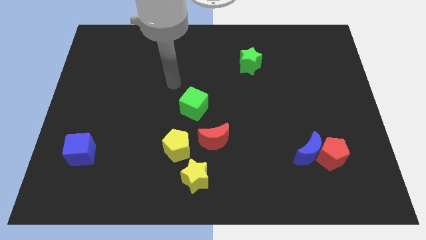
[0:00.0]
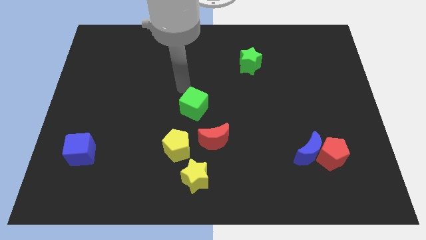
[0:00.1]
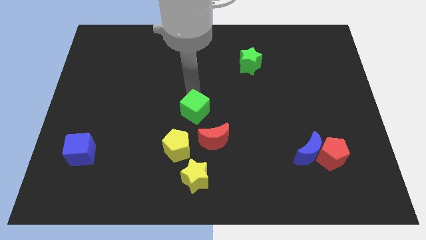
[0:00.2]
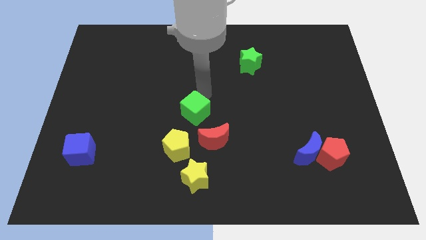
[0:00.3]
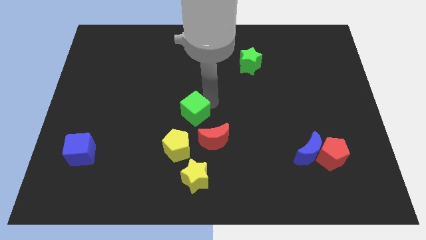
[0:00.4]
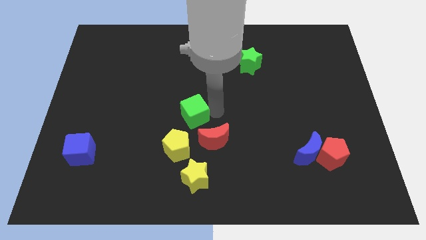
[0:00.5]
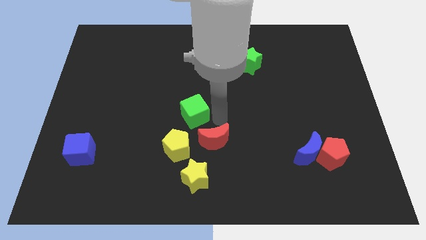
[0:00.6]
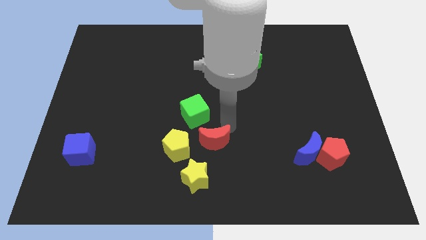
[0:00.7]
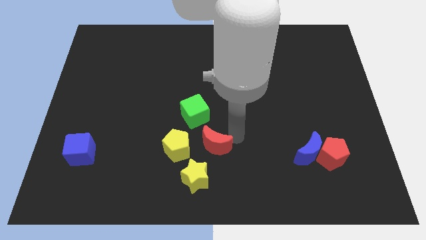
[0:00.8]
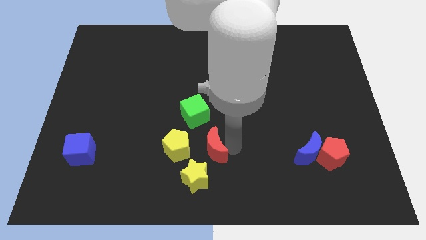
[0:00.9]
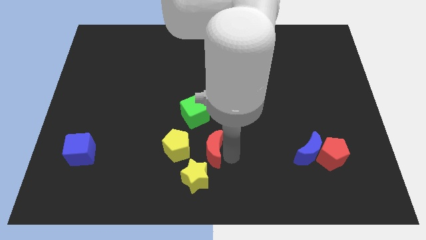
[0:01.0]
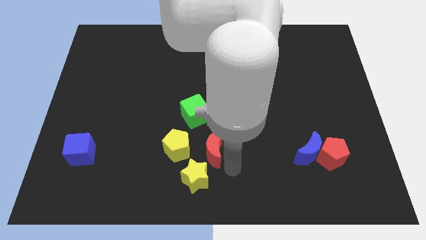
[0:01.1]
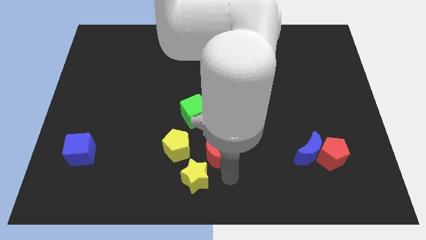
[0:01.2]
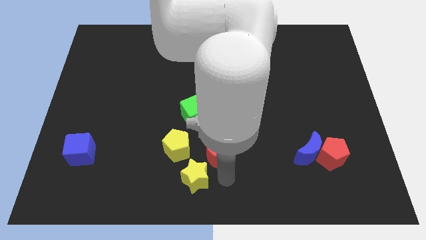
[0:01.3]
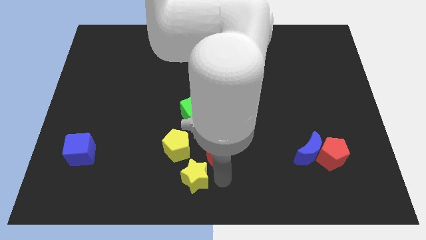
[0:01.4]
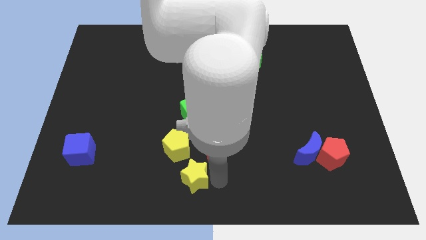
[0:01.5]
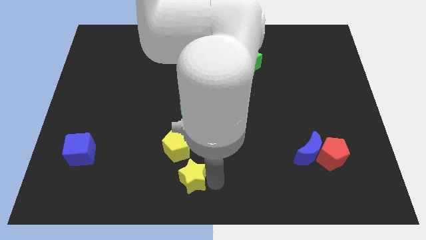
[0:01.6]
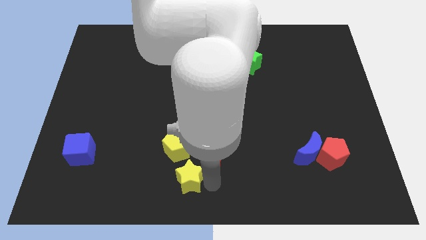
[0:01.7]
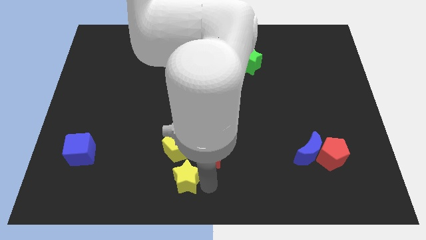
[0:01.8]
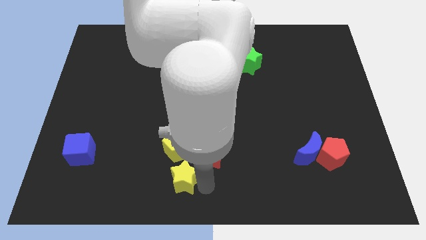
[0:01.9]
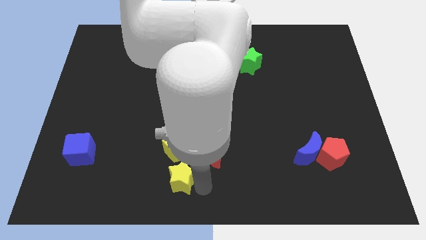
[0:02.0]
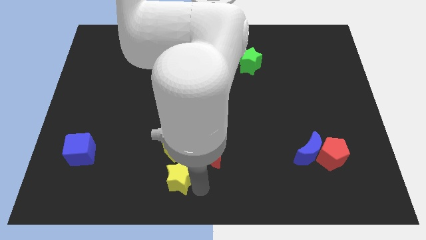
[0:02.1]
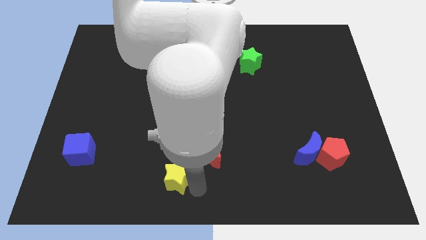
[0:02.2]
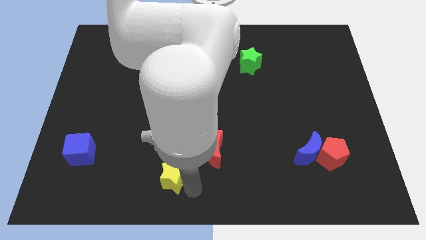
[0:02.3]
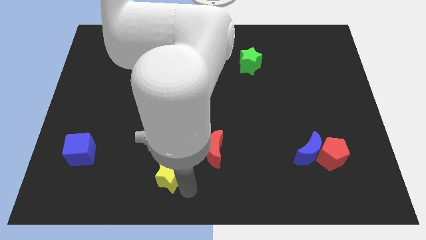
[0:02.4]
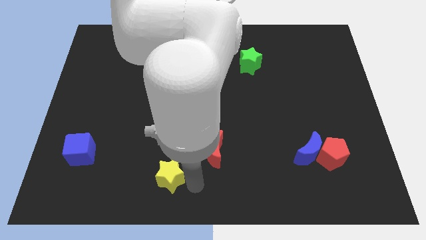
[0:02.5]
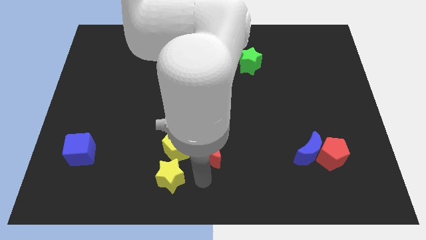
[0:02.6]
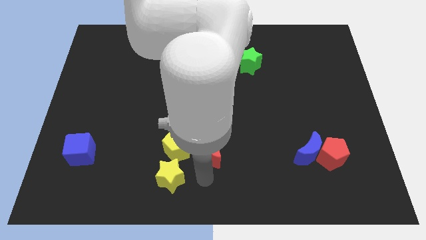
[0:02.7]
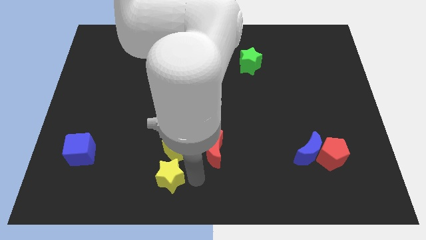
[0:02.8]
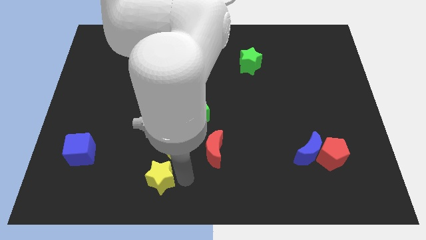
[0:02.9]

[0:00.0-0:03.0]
slide the yellow star slightly to the left

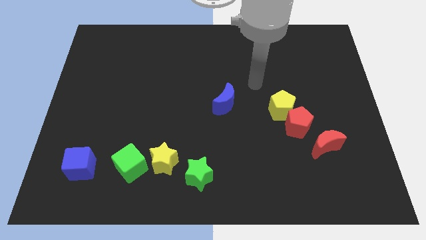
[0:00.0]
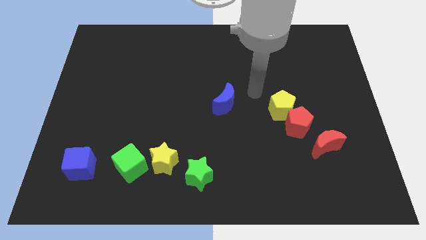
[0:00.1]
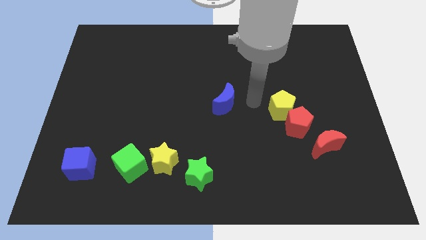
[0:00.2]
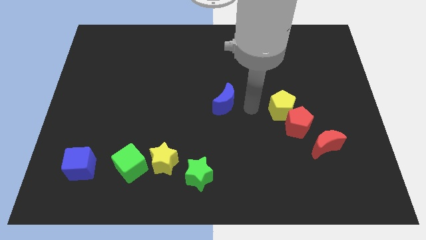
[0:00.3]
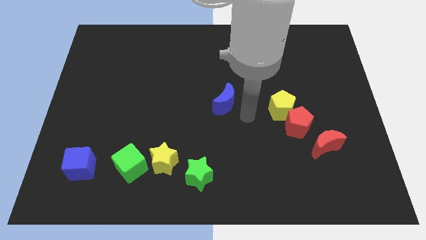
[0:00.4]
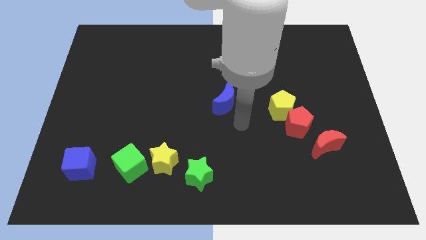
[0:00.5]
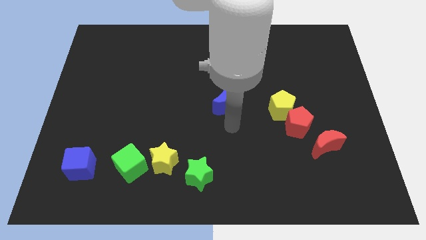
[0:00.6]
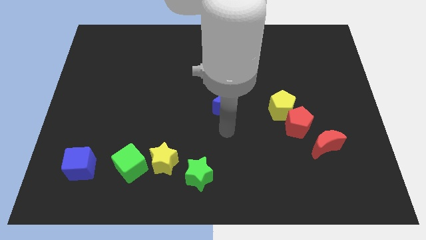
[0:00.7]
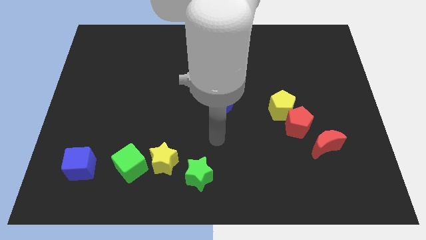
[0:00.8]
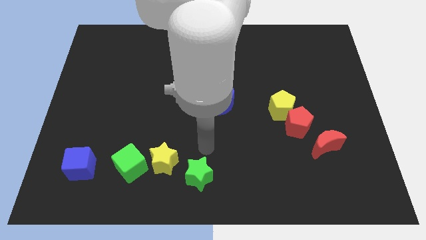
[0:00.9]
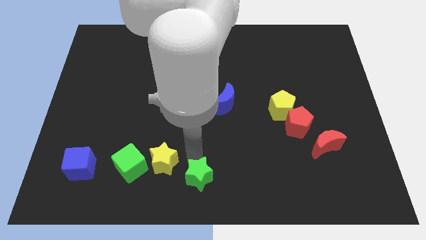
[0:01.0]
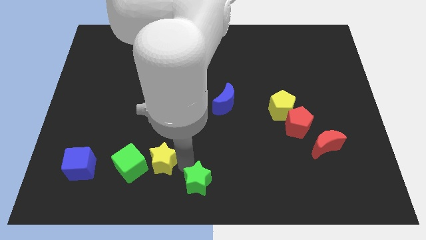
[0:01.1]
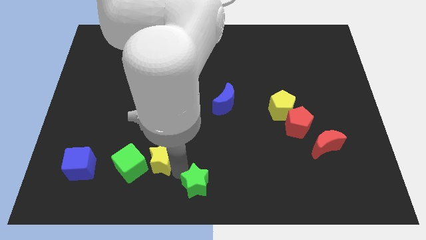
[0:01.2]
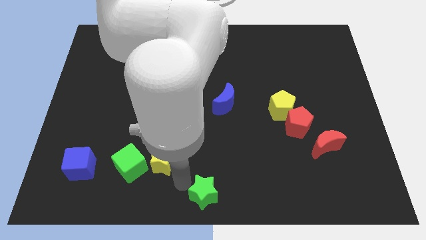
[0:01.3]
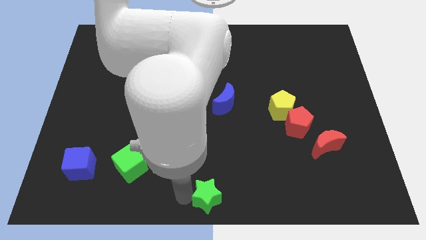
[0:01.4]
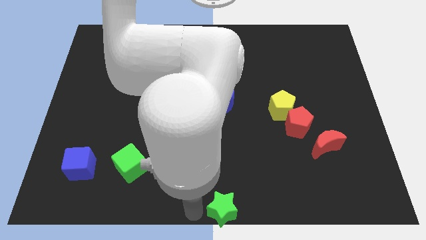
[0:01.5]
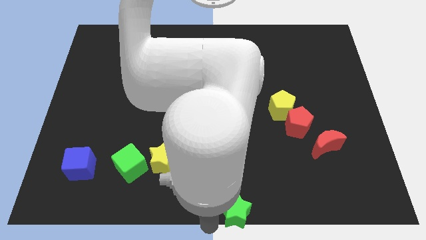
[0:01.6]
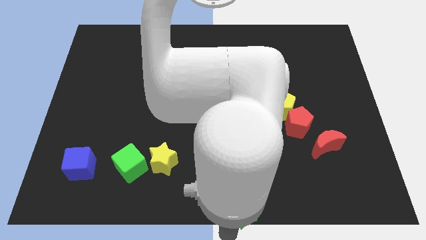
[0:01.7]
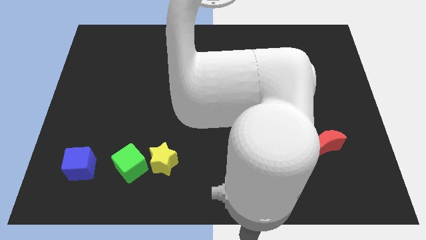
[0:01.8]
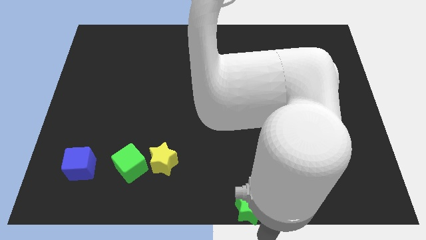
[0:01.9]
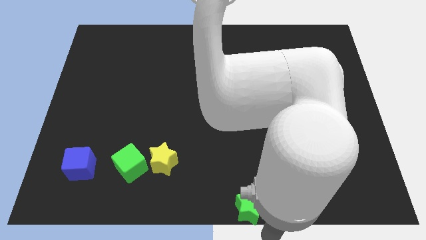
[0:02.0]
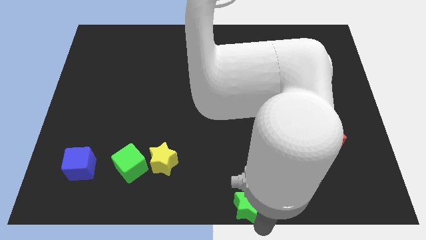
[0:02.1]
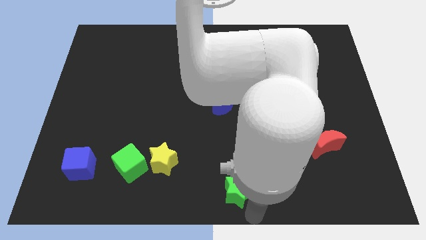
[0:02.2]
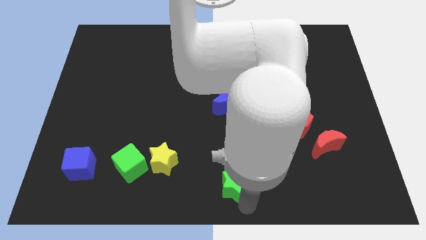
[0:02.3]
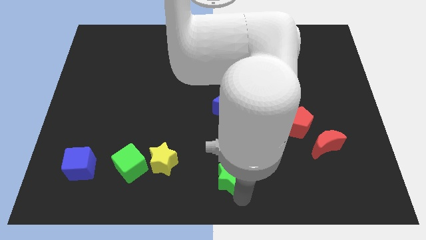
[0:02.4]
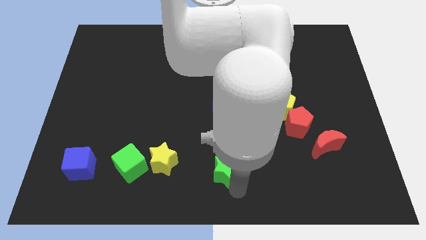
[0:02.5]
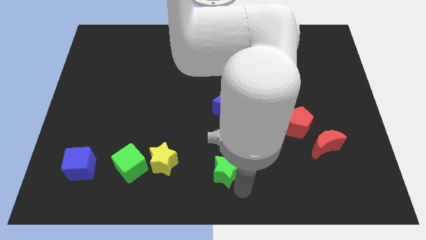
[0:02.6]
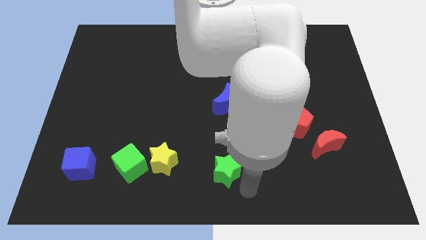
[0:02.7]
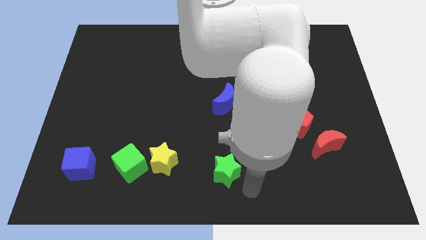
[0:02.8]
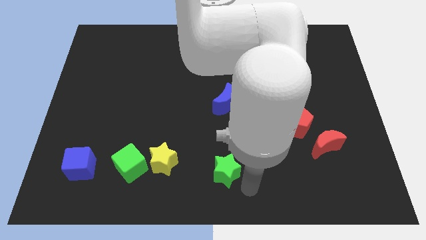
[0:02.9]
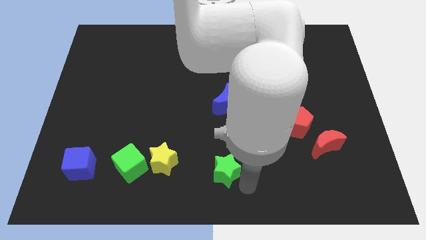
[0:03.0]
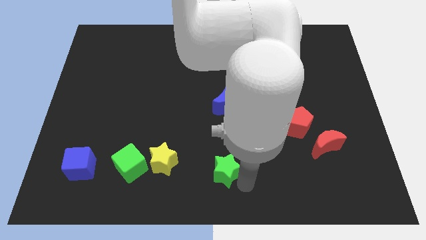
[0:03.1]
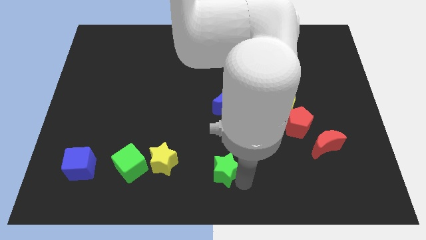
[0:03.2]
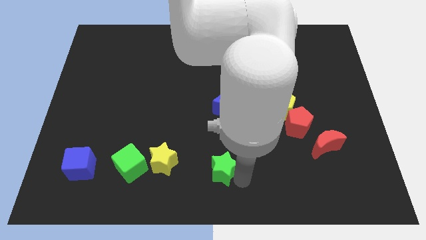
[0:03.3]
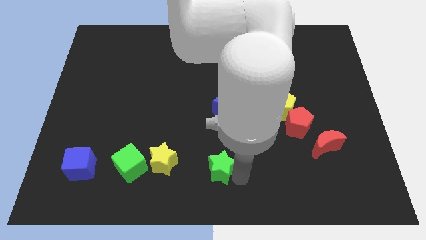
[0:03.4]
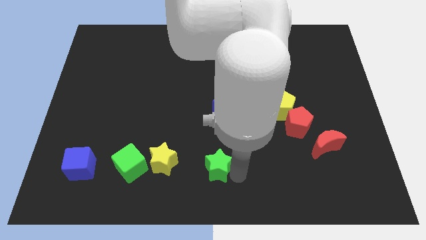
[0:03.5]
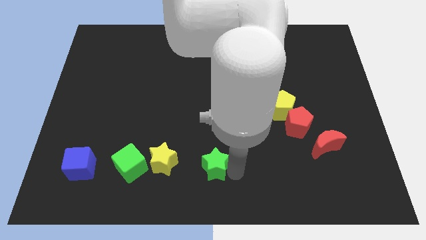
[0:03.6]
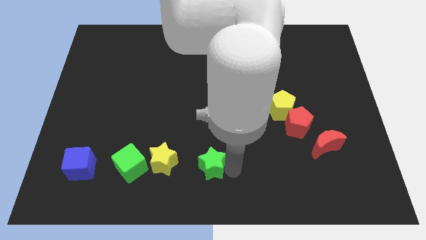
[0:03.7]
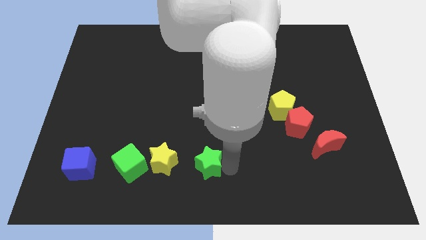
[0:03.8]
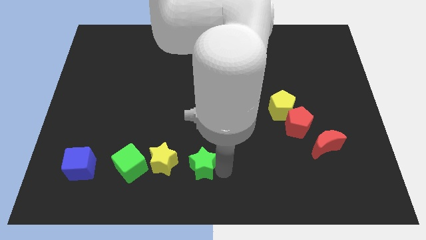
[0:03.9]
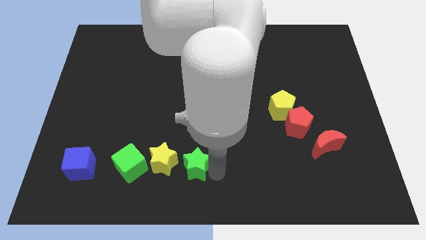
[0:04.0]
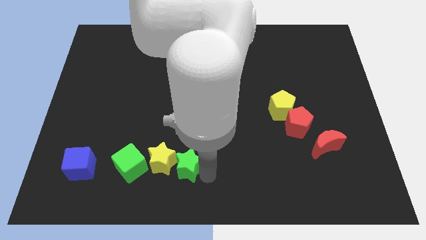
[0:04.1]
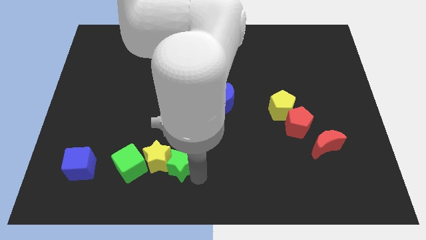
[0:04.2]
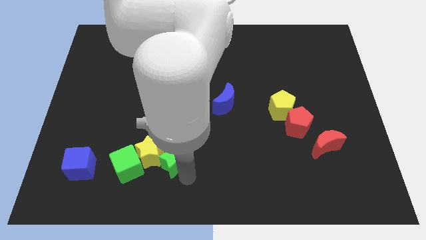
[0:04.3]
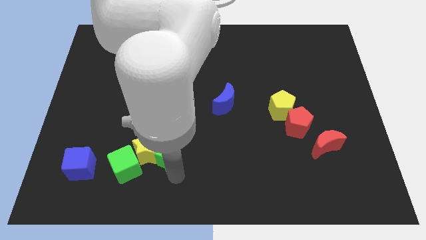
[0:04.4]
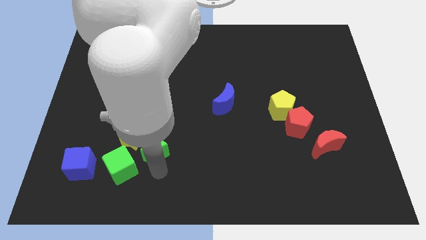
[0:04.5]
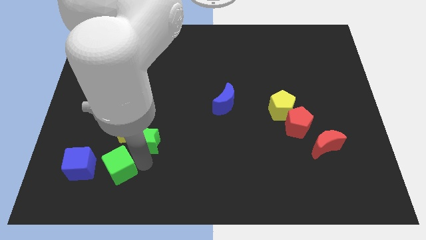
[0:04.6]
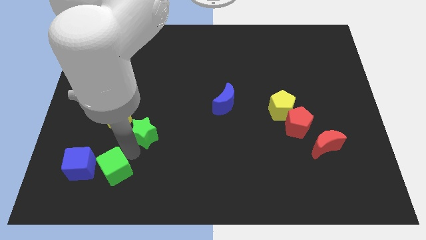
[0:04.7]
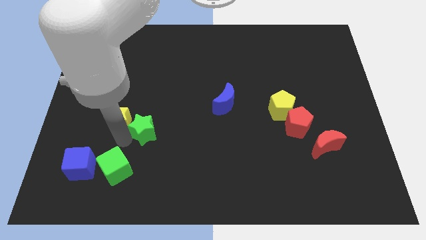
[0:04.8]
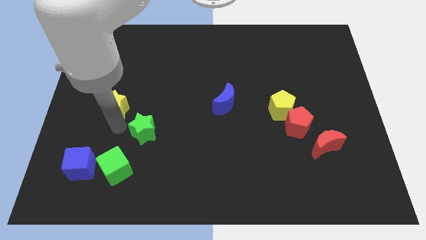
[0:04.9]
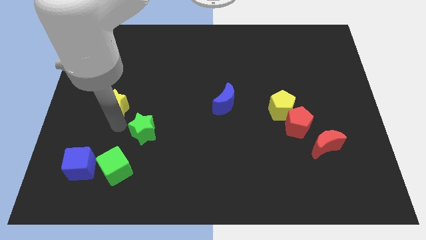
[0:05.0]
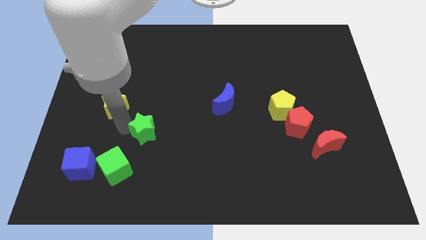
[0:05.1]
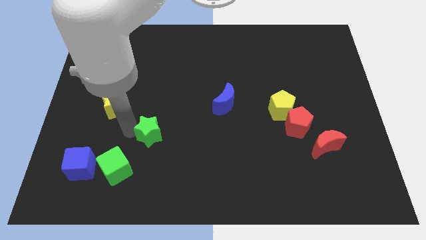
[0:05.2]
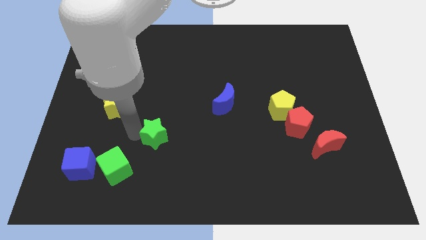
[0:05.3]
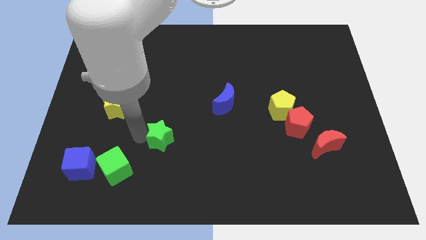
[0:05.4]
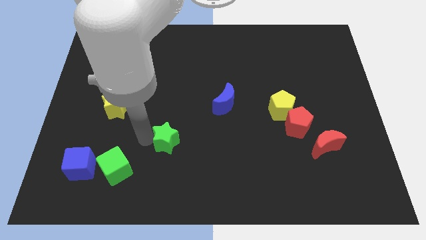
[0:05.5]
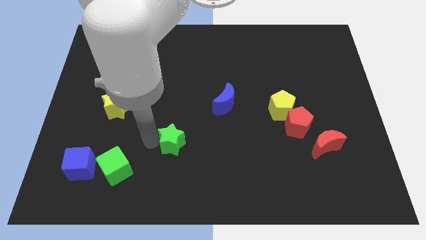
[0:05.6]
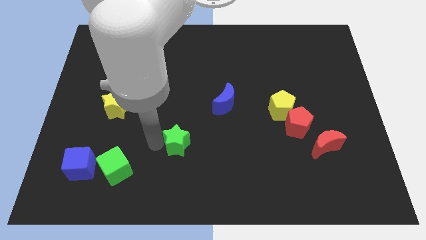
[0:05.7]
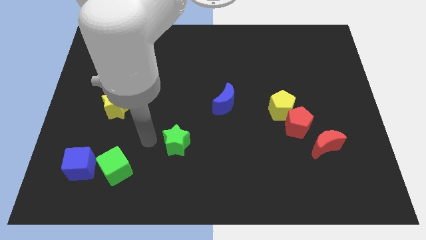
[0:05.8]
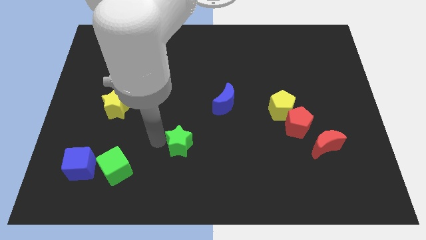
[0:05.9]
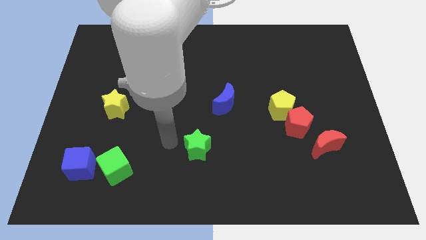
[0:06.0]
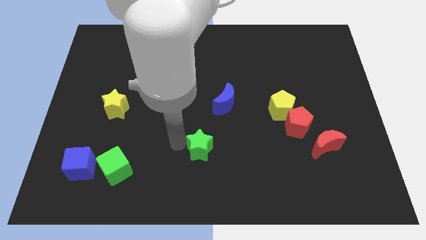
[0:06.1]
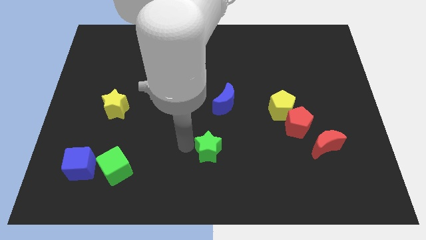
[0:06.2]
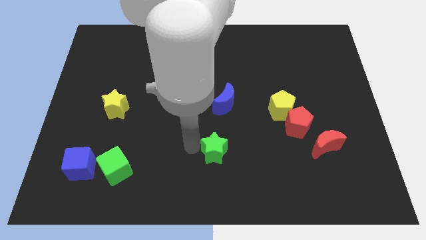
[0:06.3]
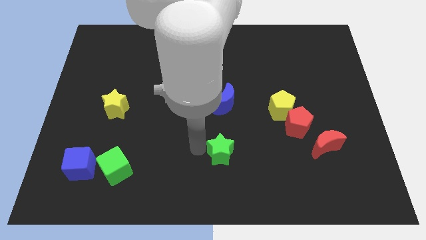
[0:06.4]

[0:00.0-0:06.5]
move the green star slightly up and to the right
